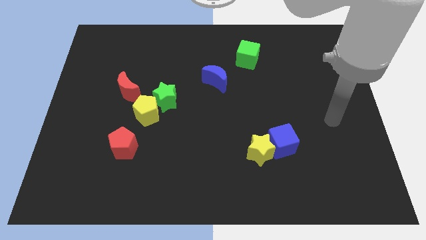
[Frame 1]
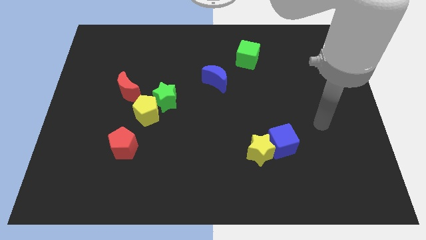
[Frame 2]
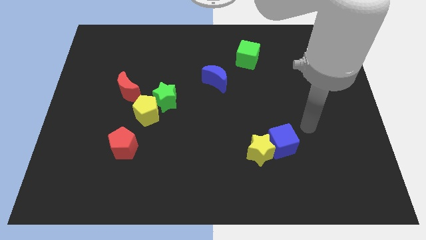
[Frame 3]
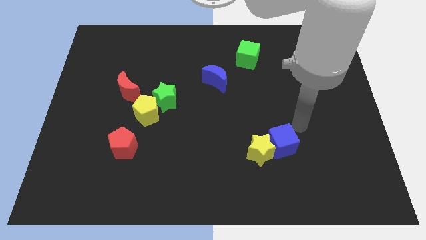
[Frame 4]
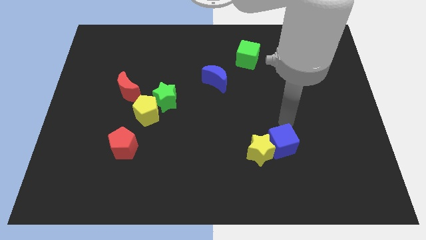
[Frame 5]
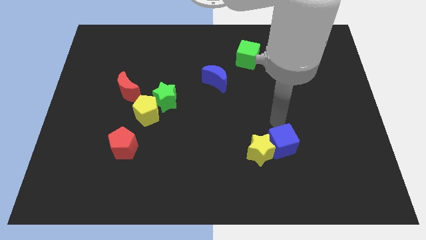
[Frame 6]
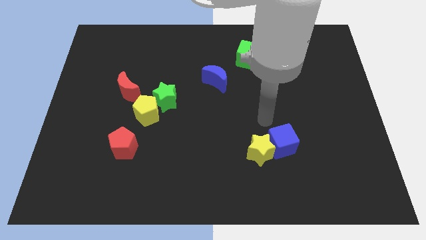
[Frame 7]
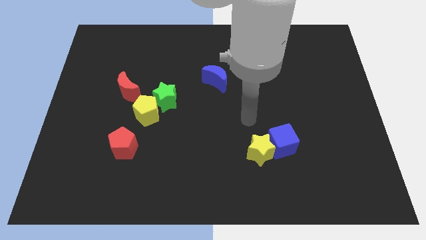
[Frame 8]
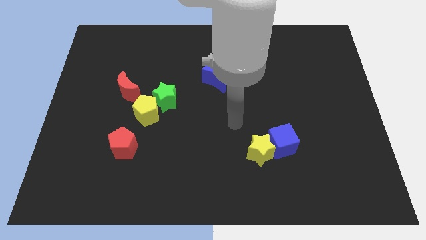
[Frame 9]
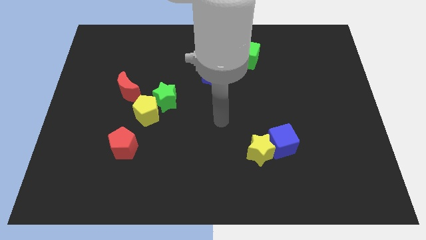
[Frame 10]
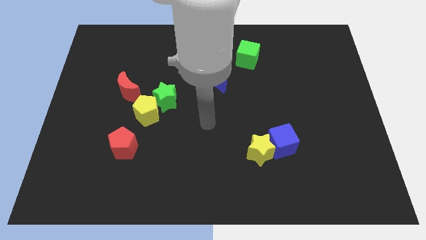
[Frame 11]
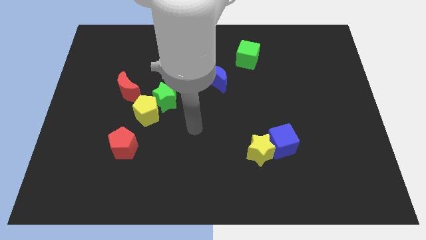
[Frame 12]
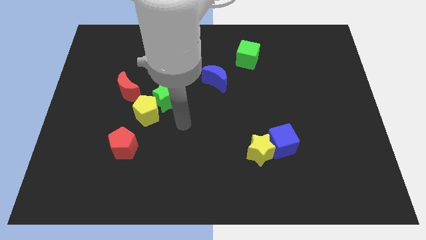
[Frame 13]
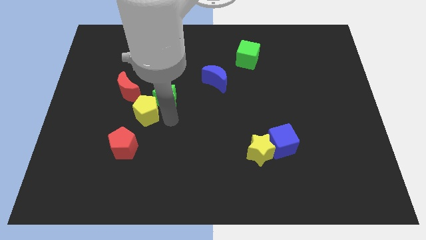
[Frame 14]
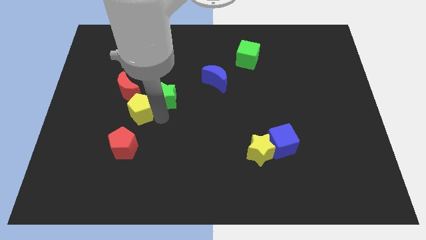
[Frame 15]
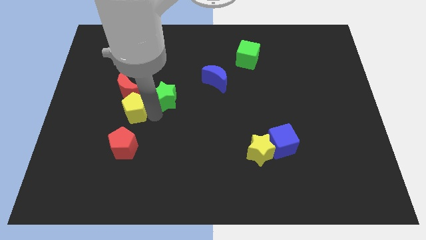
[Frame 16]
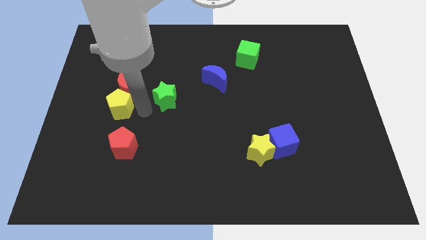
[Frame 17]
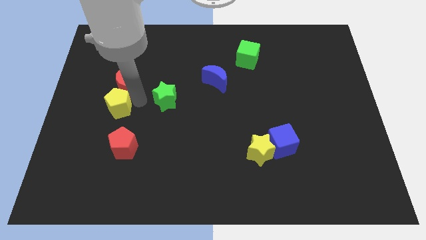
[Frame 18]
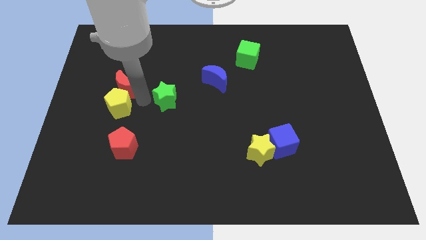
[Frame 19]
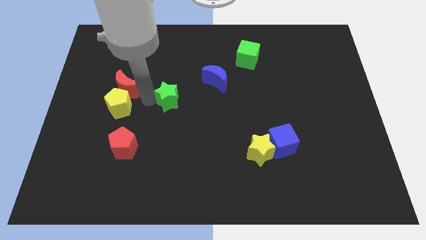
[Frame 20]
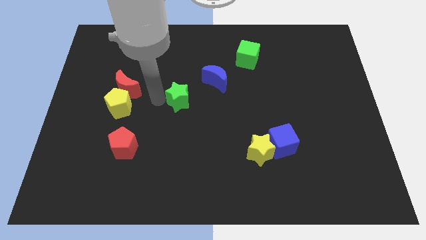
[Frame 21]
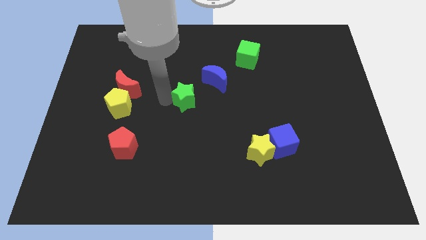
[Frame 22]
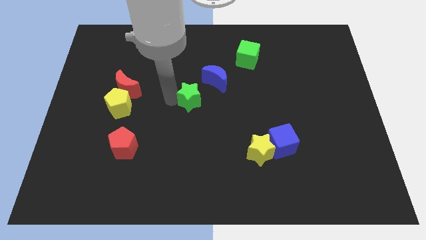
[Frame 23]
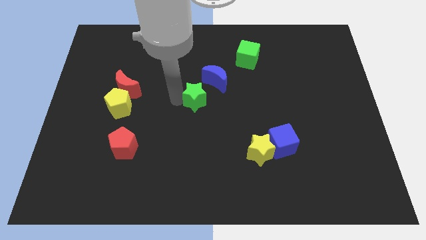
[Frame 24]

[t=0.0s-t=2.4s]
move the green star to the right somewhat

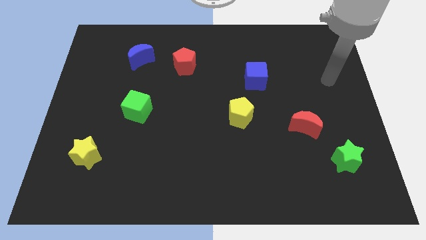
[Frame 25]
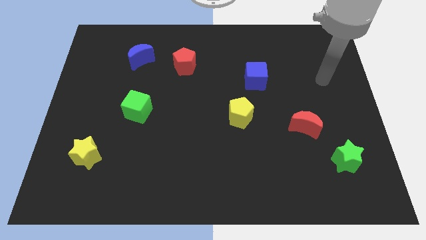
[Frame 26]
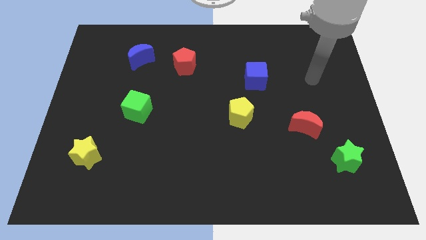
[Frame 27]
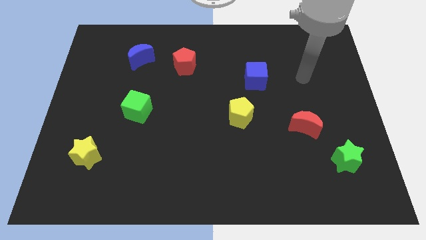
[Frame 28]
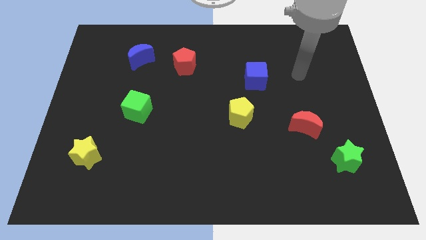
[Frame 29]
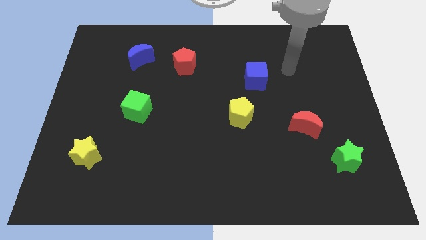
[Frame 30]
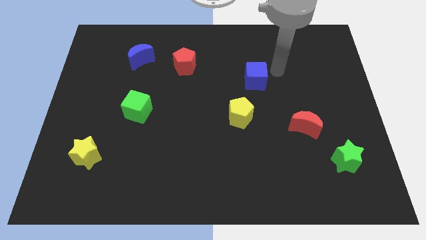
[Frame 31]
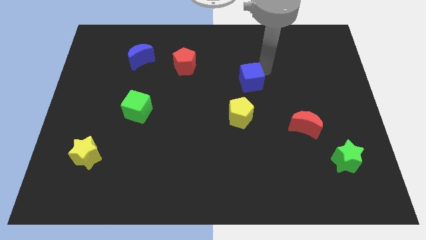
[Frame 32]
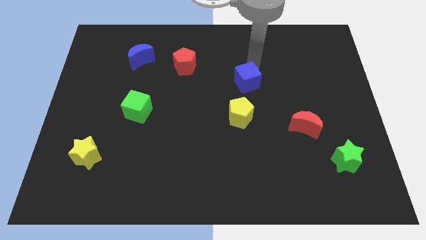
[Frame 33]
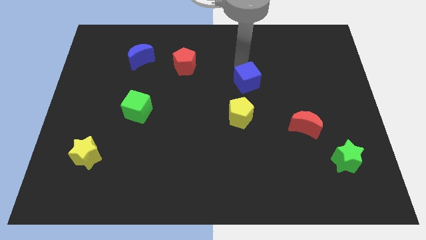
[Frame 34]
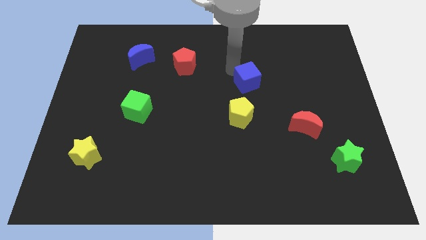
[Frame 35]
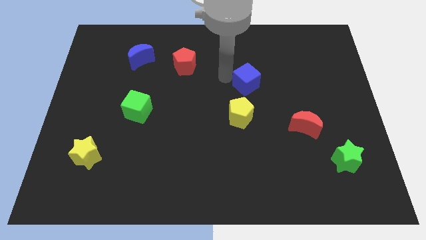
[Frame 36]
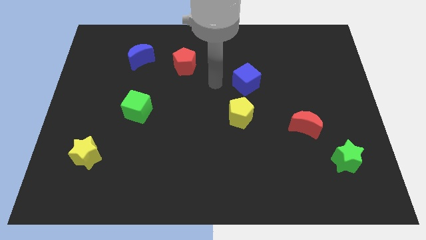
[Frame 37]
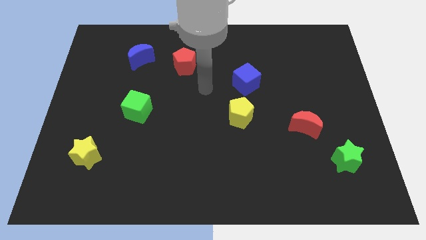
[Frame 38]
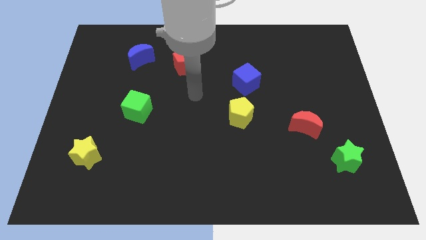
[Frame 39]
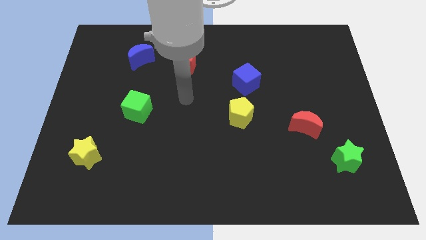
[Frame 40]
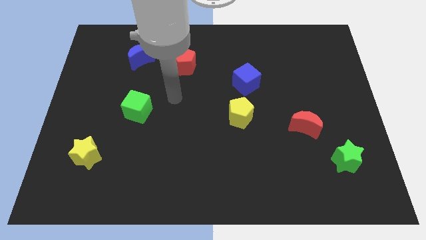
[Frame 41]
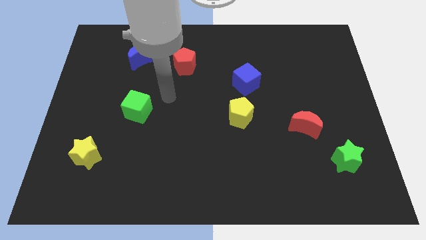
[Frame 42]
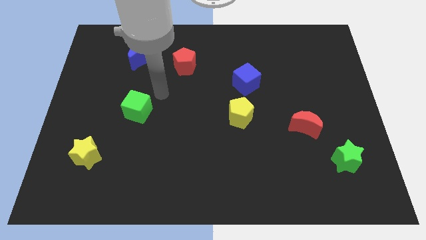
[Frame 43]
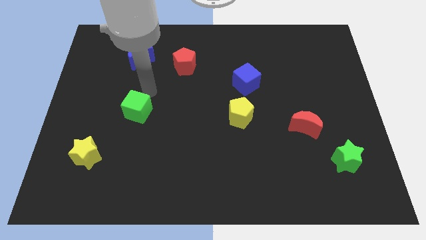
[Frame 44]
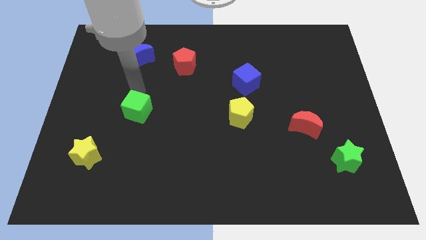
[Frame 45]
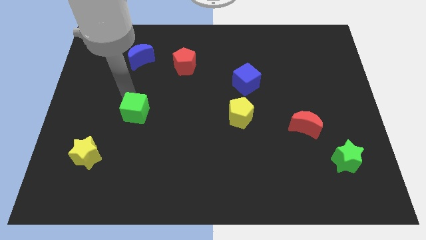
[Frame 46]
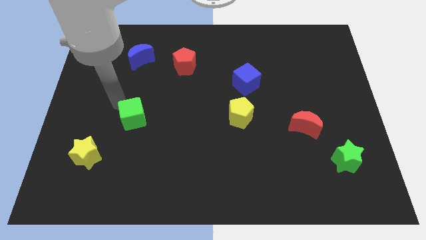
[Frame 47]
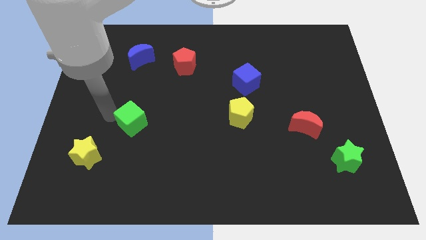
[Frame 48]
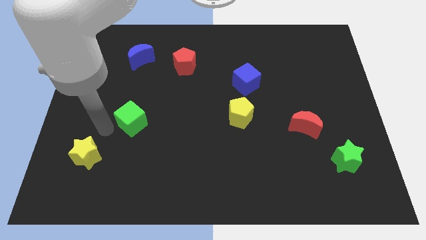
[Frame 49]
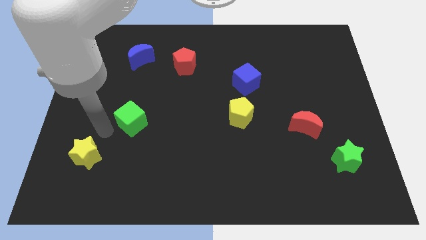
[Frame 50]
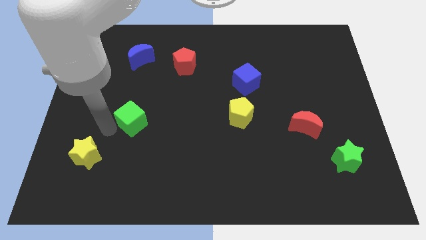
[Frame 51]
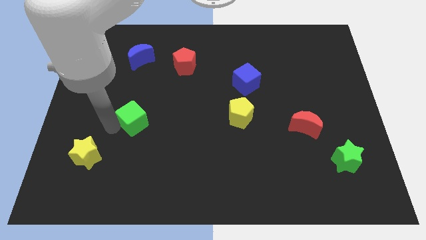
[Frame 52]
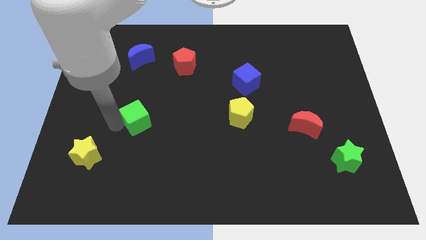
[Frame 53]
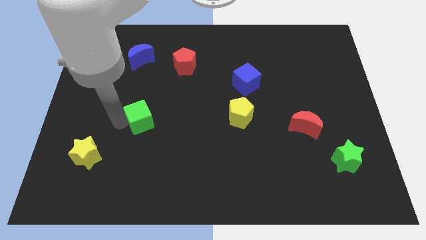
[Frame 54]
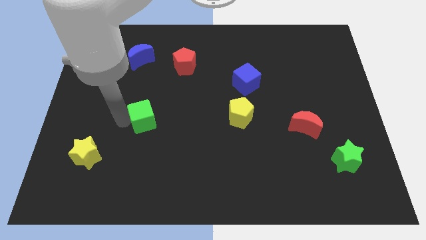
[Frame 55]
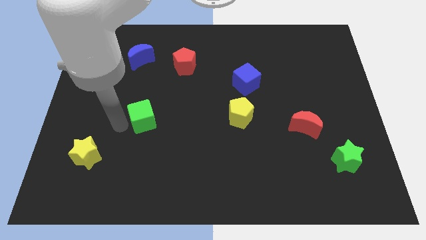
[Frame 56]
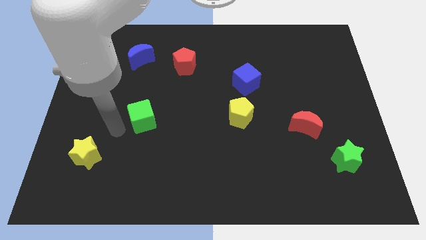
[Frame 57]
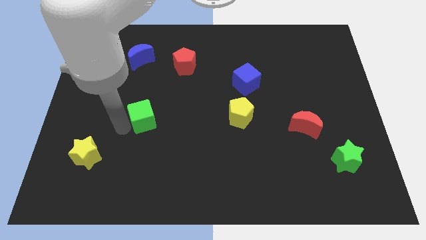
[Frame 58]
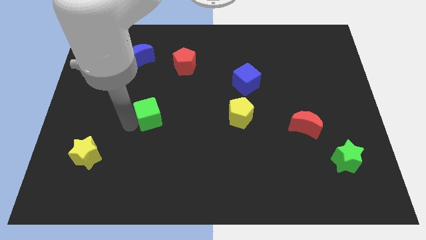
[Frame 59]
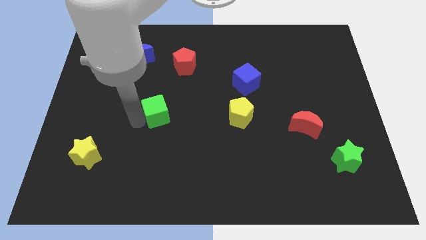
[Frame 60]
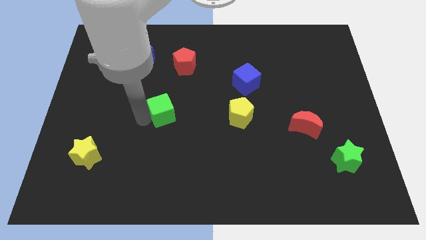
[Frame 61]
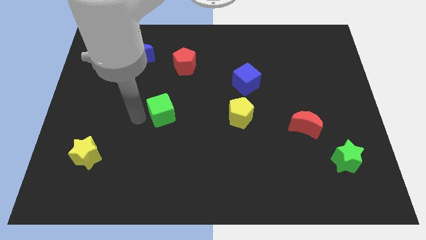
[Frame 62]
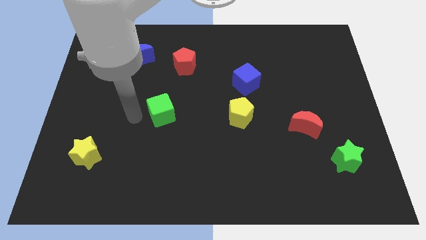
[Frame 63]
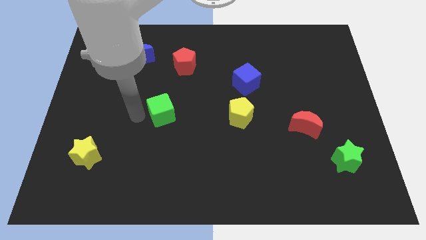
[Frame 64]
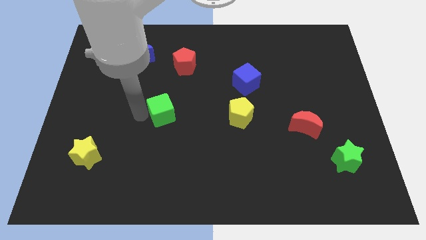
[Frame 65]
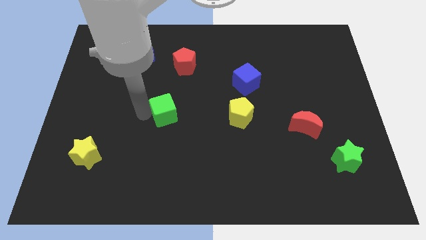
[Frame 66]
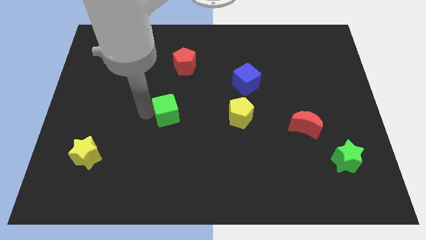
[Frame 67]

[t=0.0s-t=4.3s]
push the green cube right somewhat

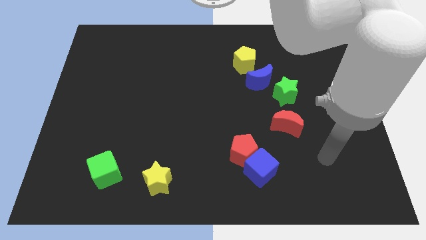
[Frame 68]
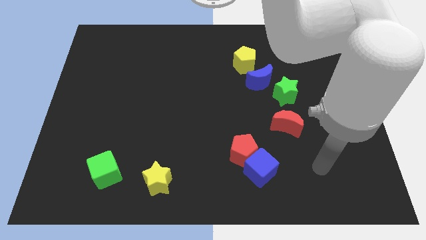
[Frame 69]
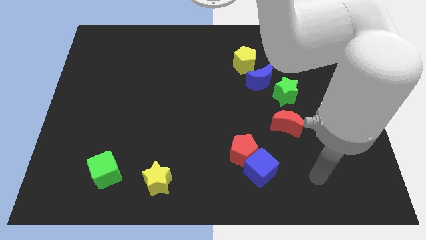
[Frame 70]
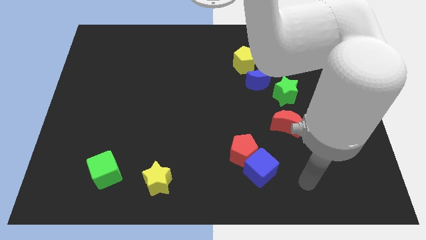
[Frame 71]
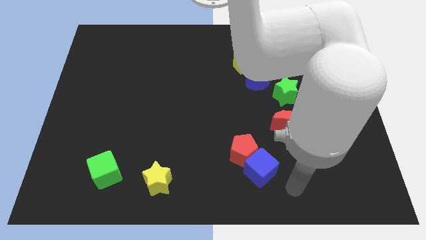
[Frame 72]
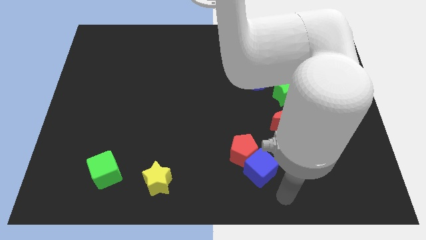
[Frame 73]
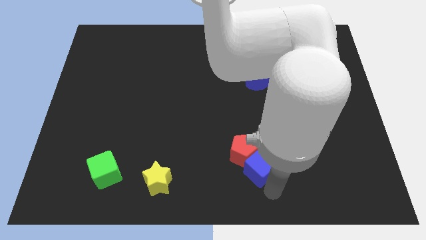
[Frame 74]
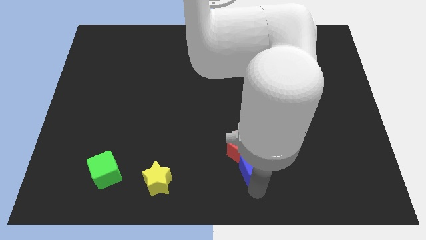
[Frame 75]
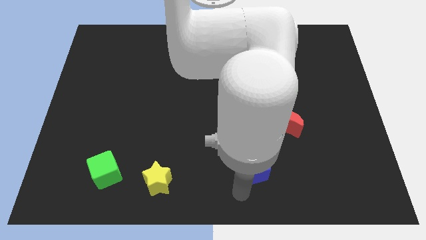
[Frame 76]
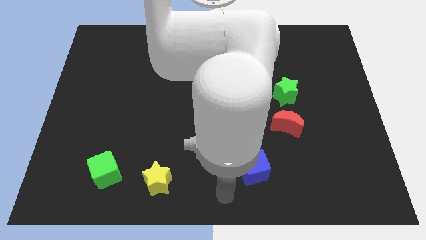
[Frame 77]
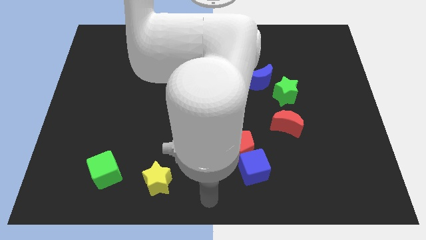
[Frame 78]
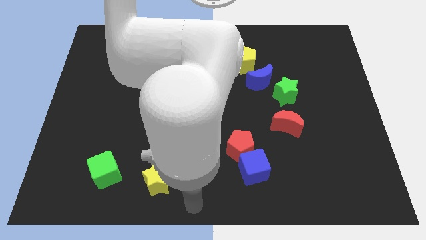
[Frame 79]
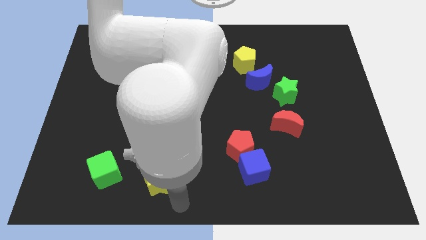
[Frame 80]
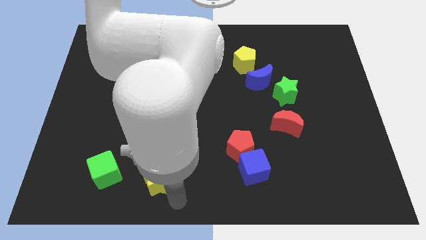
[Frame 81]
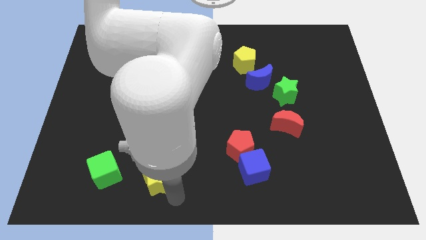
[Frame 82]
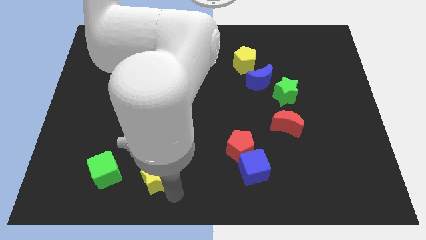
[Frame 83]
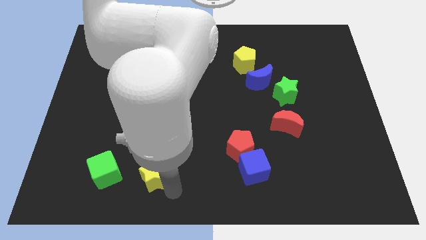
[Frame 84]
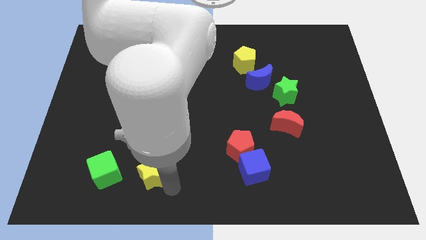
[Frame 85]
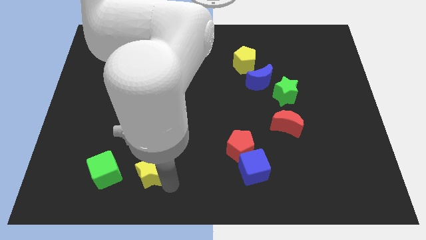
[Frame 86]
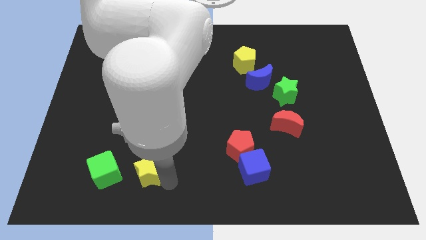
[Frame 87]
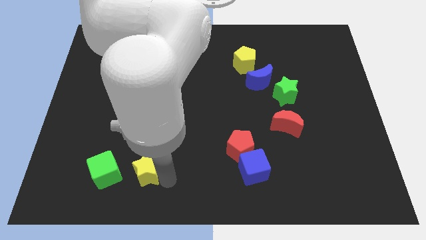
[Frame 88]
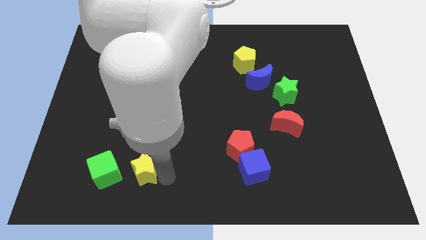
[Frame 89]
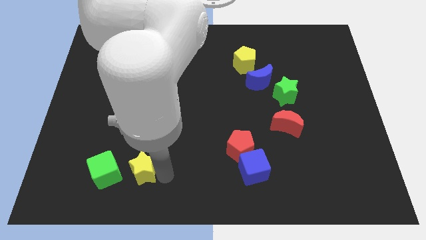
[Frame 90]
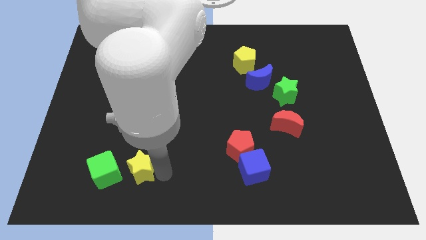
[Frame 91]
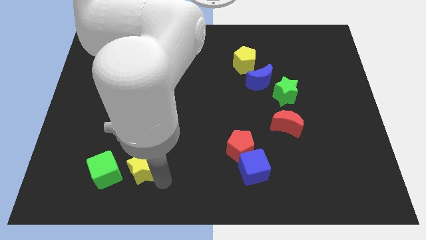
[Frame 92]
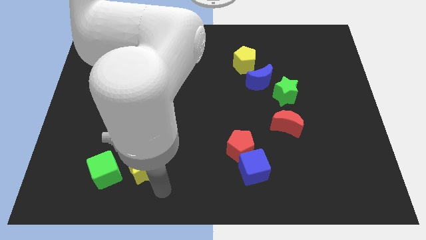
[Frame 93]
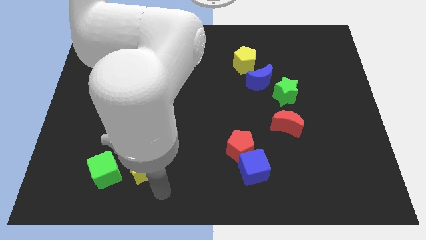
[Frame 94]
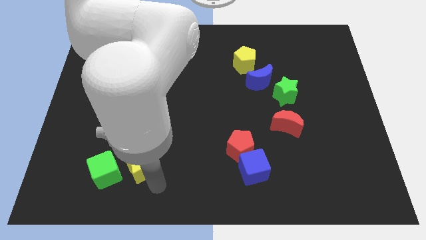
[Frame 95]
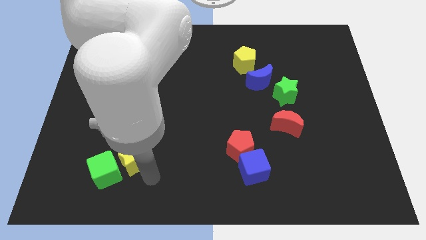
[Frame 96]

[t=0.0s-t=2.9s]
move the yellow star slightly up and to the left
